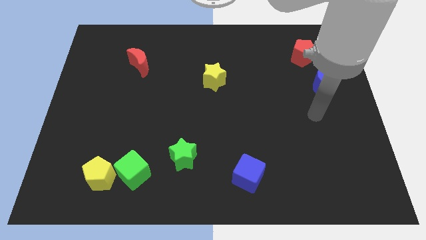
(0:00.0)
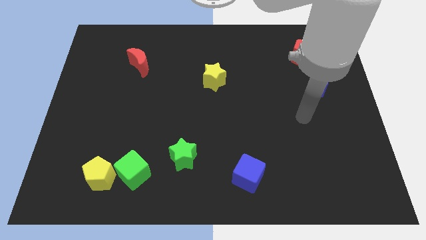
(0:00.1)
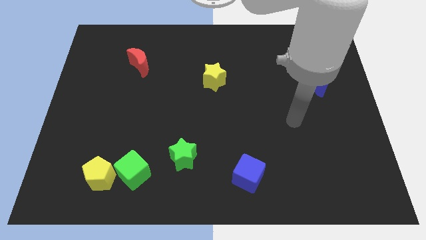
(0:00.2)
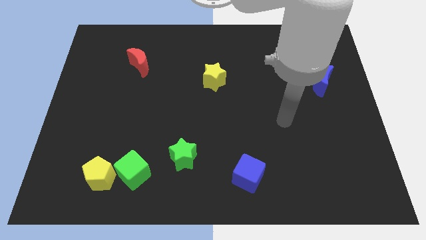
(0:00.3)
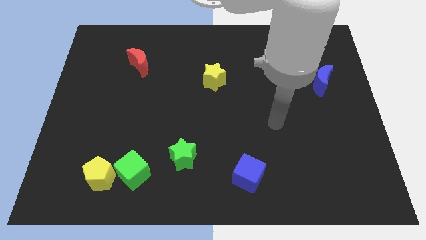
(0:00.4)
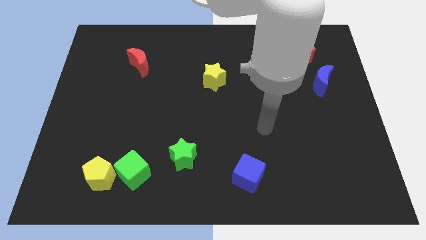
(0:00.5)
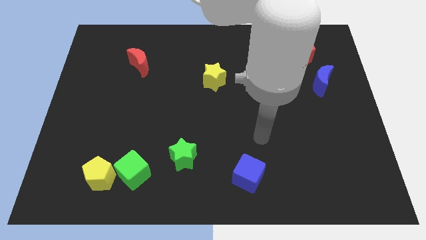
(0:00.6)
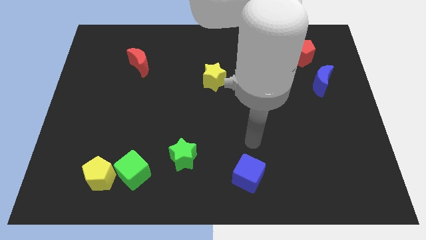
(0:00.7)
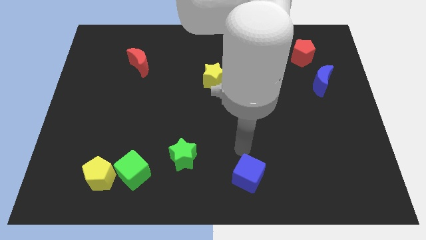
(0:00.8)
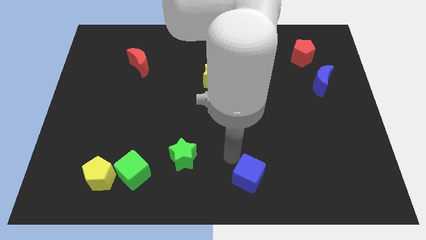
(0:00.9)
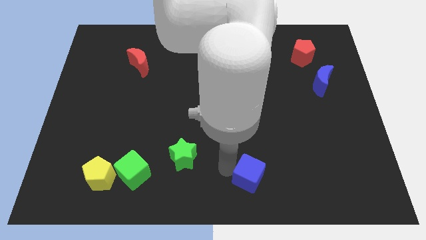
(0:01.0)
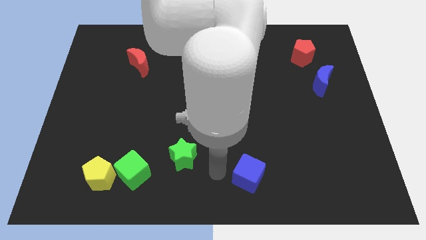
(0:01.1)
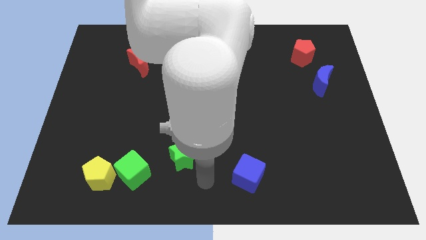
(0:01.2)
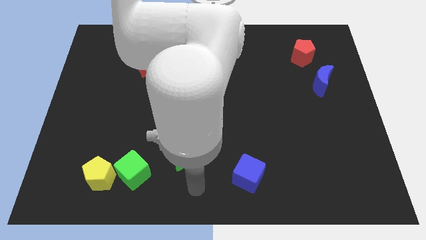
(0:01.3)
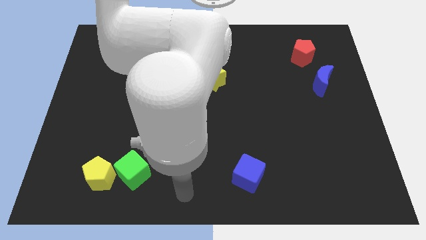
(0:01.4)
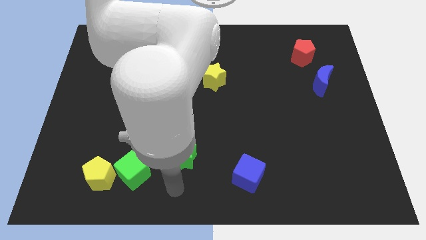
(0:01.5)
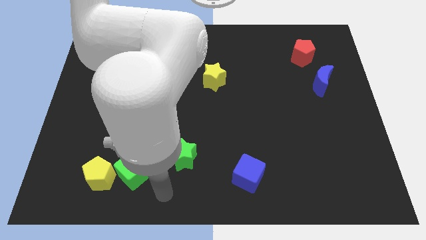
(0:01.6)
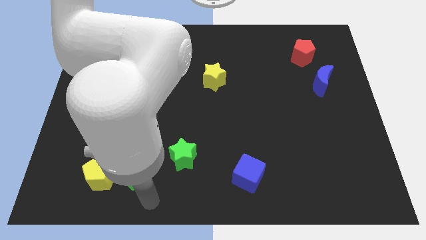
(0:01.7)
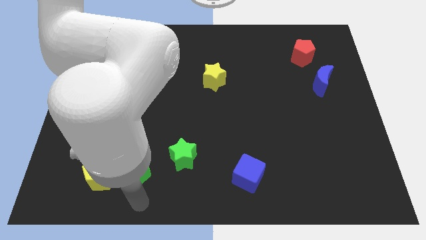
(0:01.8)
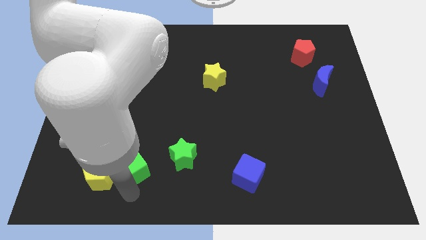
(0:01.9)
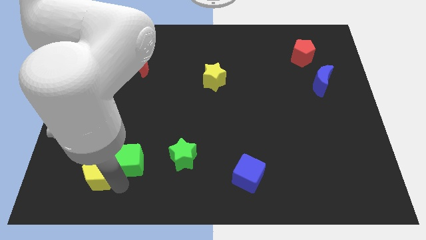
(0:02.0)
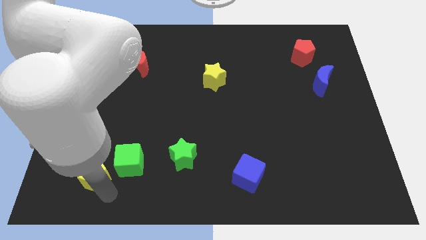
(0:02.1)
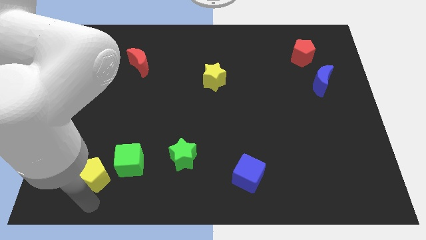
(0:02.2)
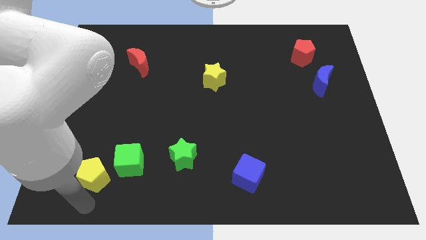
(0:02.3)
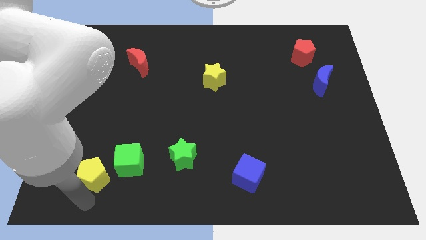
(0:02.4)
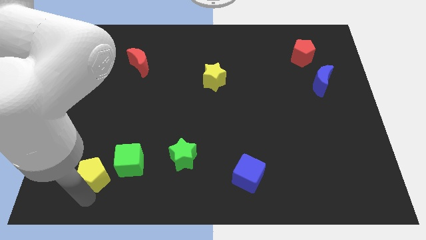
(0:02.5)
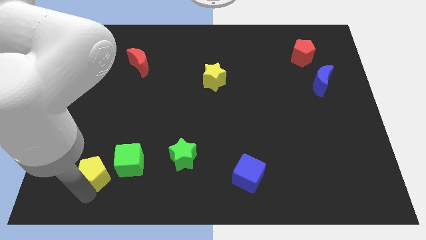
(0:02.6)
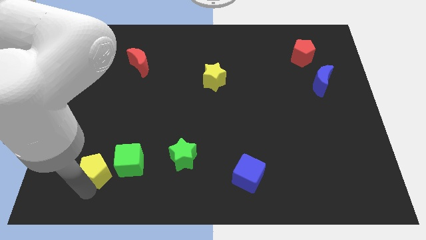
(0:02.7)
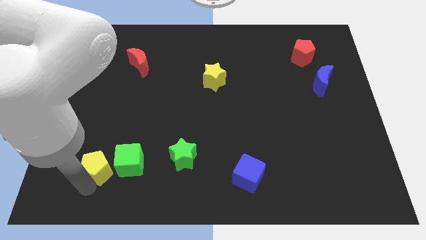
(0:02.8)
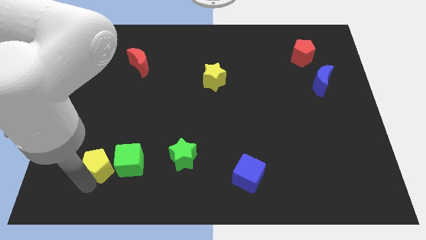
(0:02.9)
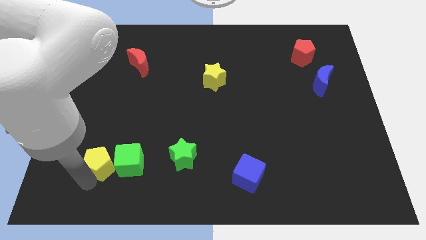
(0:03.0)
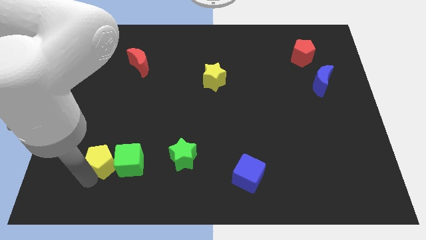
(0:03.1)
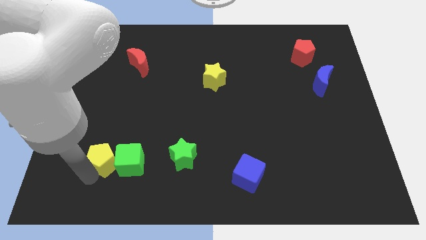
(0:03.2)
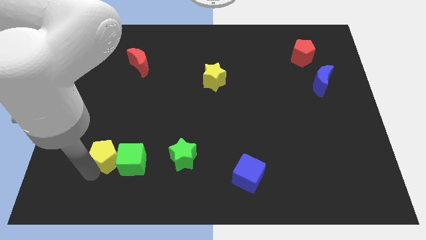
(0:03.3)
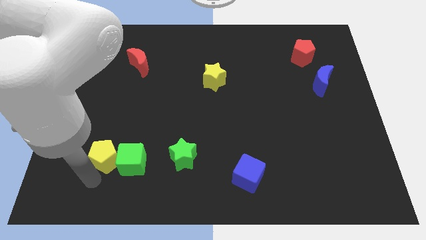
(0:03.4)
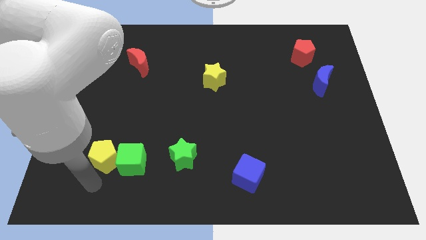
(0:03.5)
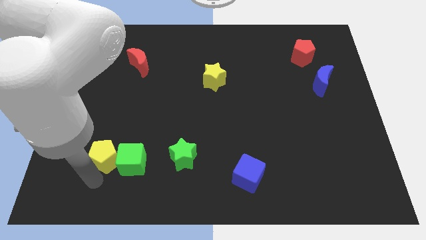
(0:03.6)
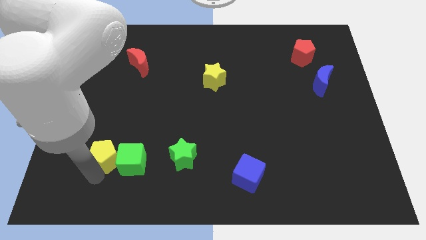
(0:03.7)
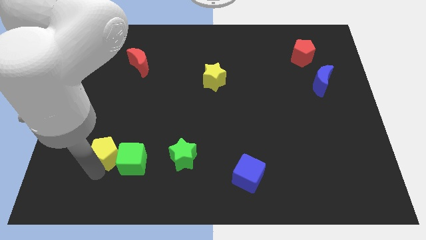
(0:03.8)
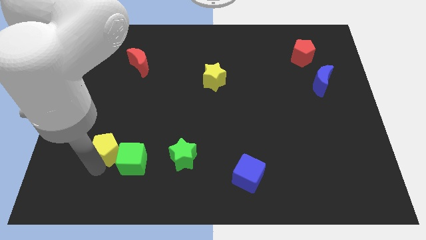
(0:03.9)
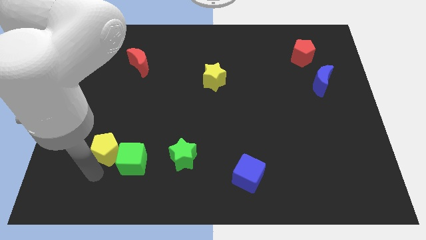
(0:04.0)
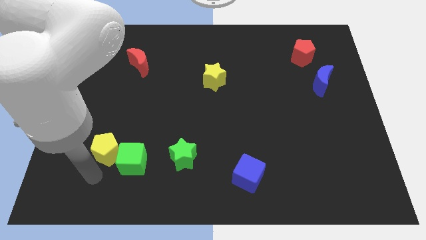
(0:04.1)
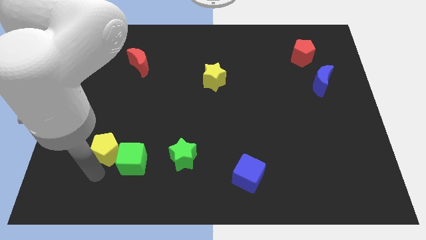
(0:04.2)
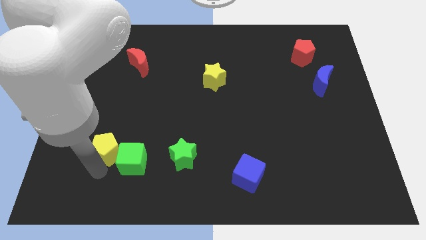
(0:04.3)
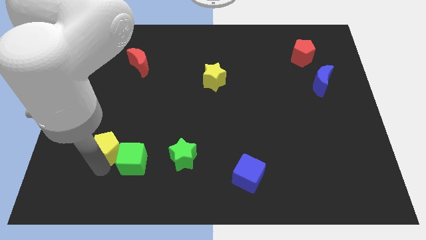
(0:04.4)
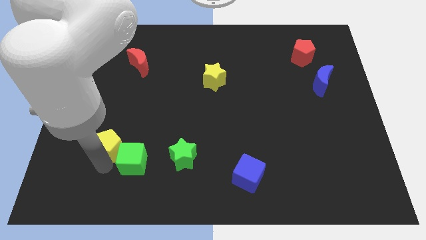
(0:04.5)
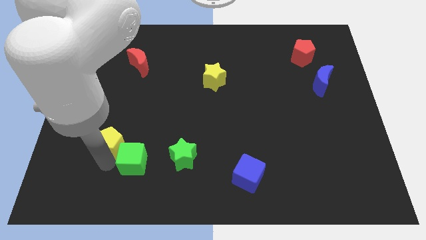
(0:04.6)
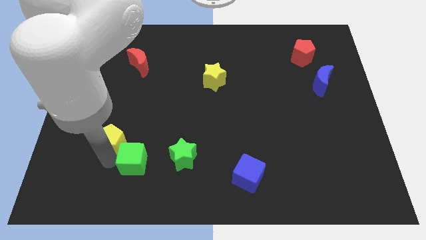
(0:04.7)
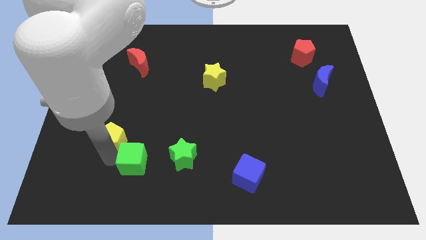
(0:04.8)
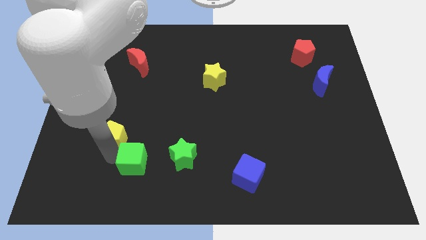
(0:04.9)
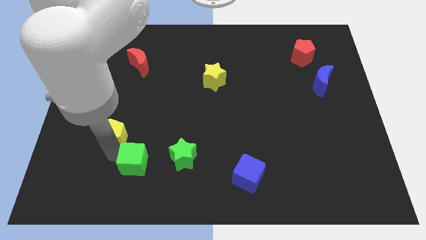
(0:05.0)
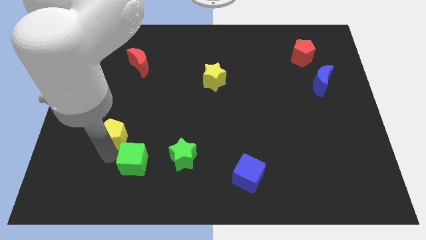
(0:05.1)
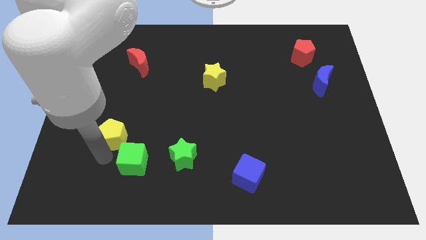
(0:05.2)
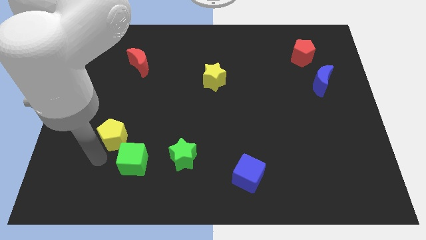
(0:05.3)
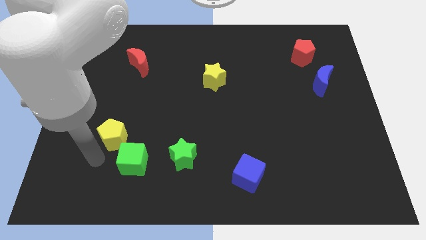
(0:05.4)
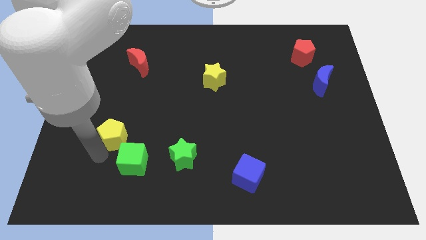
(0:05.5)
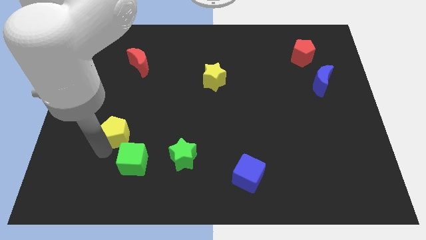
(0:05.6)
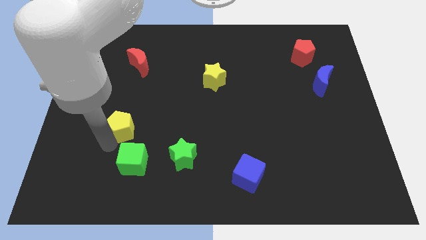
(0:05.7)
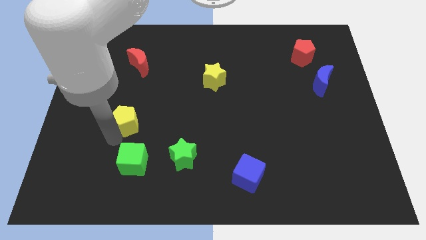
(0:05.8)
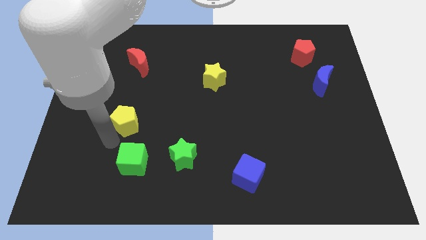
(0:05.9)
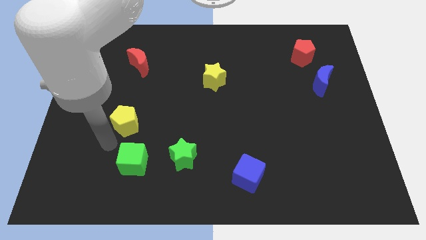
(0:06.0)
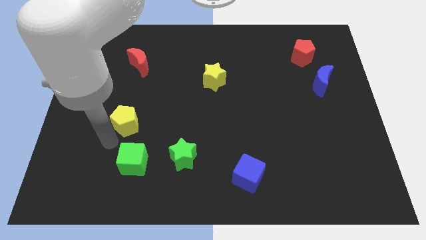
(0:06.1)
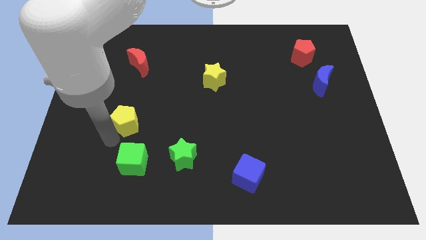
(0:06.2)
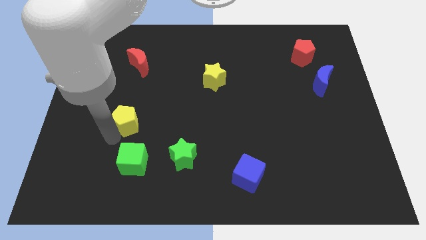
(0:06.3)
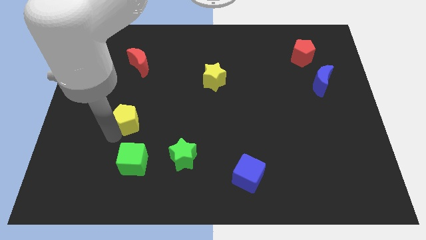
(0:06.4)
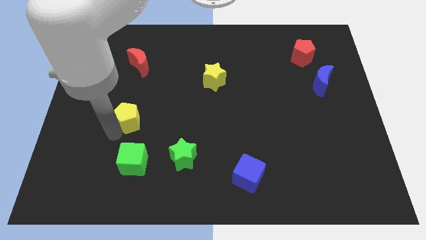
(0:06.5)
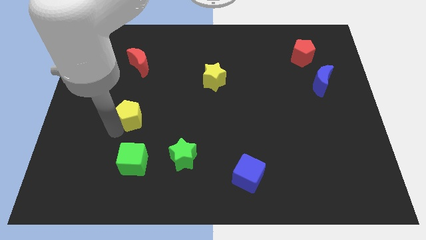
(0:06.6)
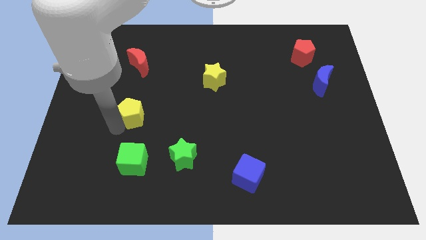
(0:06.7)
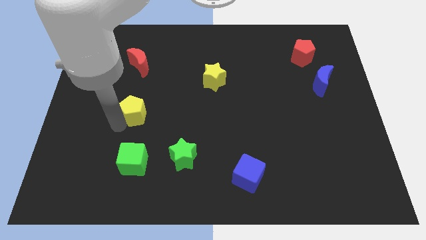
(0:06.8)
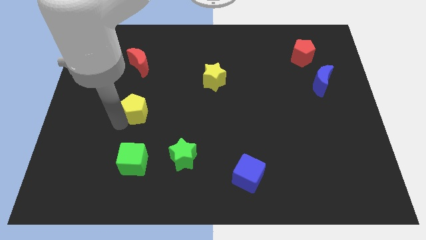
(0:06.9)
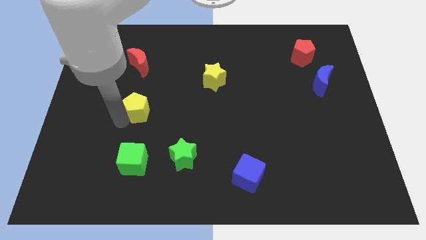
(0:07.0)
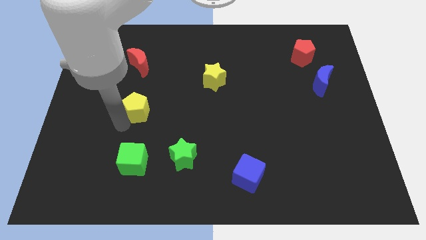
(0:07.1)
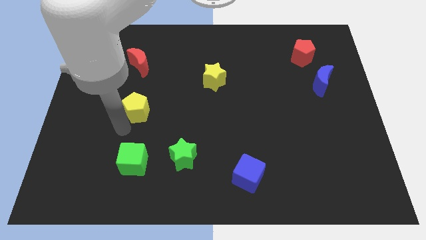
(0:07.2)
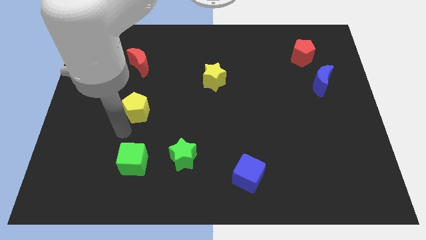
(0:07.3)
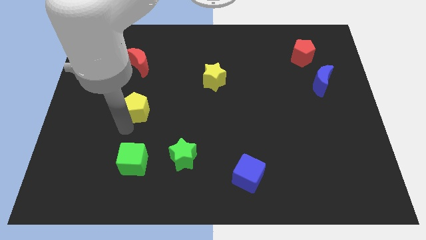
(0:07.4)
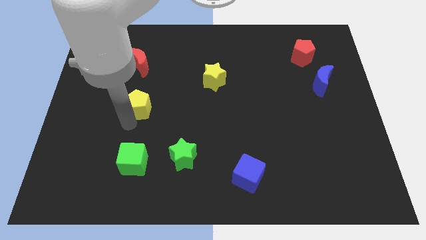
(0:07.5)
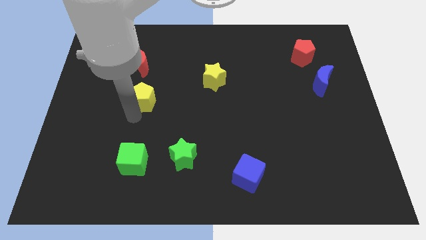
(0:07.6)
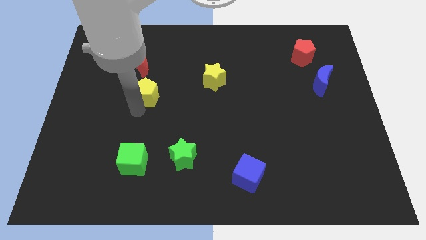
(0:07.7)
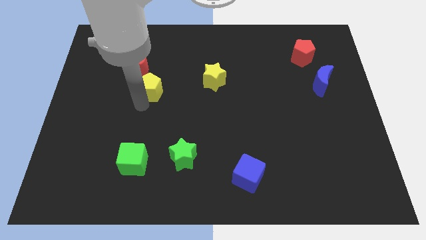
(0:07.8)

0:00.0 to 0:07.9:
slide the yellow pentagon diagonally down and to the right of the red moon
